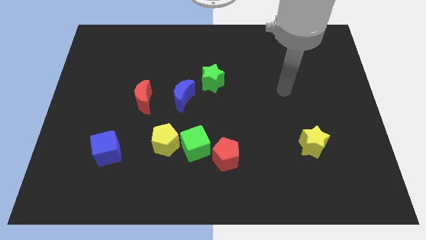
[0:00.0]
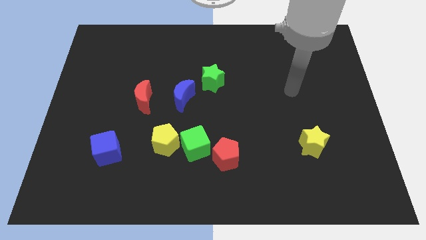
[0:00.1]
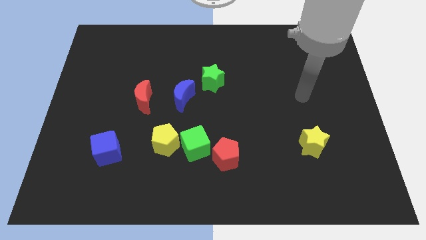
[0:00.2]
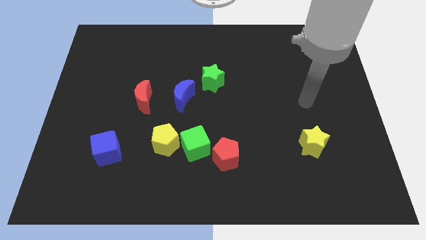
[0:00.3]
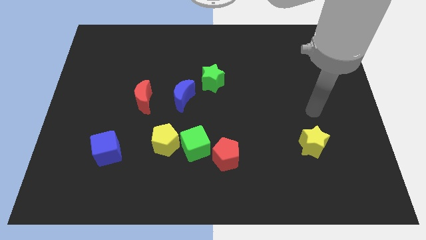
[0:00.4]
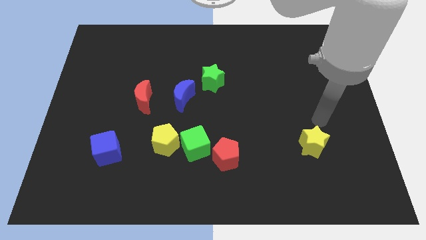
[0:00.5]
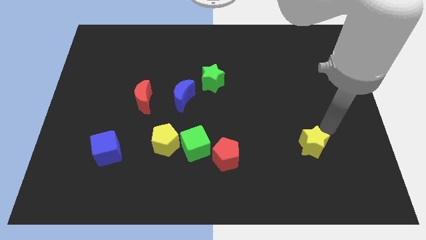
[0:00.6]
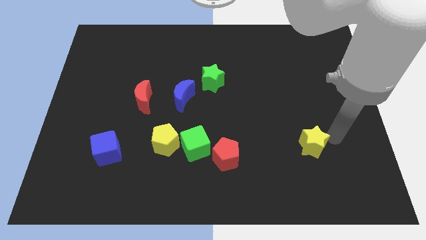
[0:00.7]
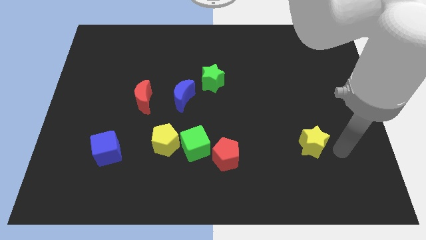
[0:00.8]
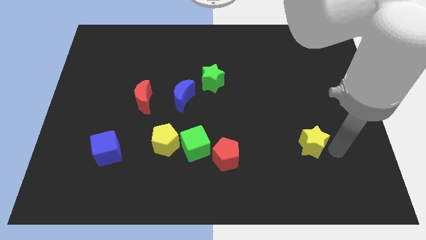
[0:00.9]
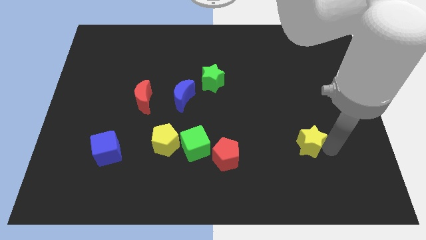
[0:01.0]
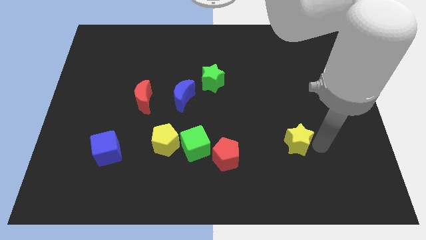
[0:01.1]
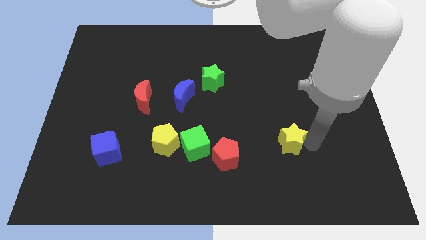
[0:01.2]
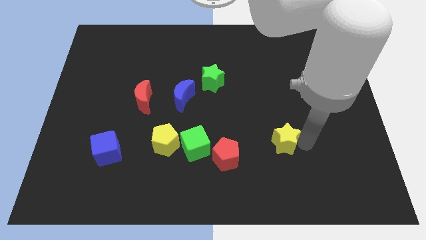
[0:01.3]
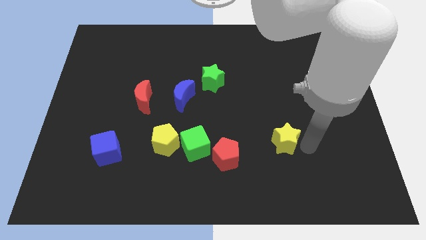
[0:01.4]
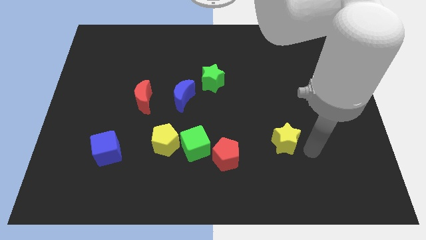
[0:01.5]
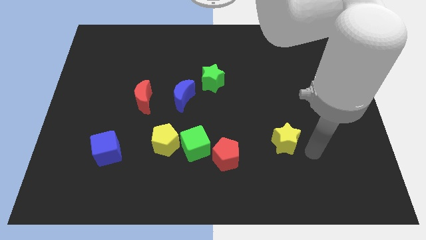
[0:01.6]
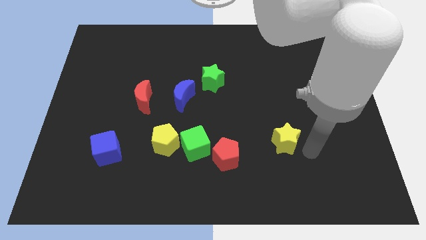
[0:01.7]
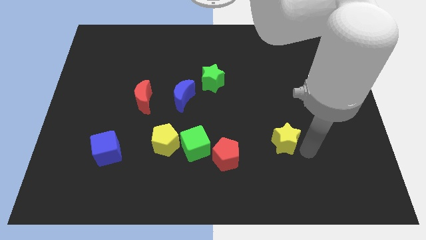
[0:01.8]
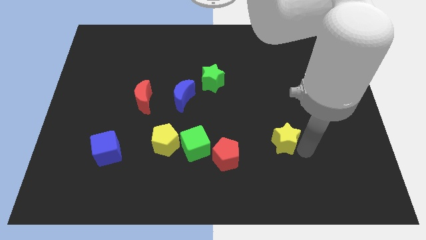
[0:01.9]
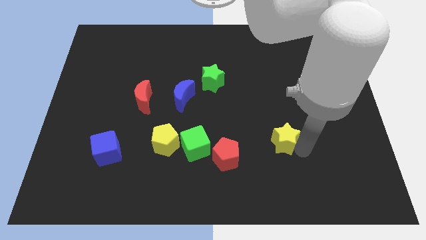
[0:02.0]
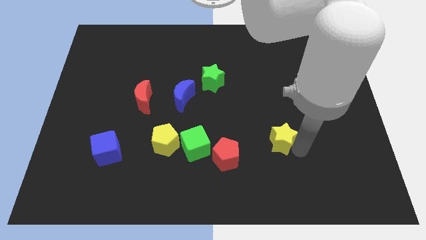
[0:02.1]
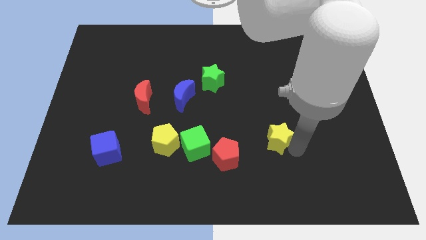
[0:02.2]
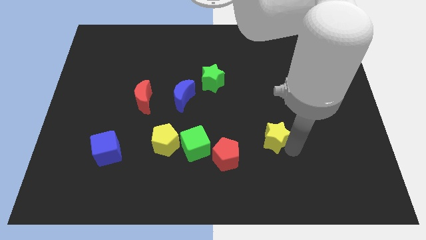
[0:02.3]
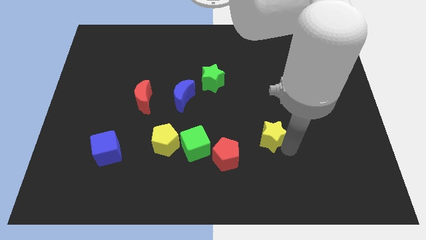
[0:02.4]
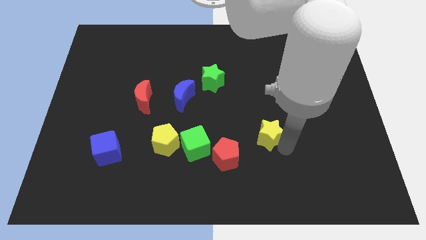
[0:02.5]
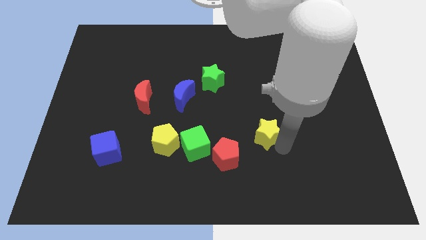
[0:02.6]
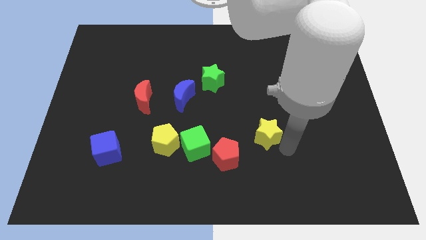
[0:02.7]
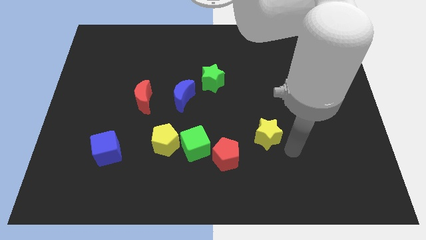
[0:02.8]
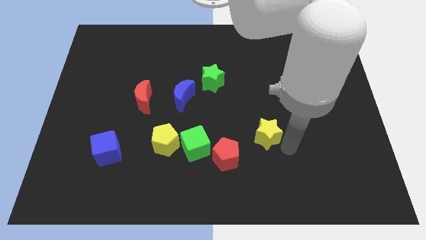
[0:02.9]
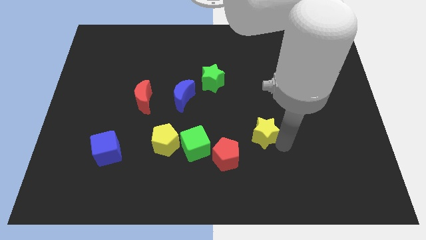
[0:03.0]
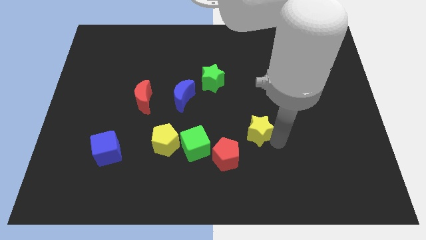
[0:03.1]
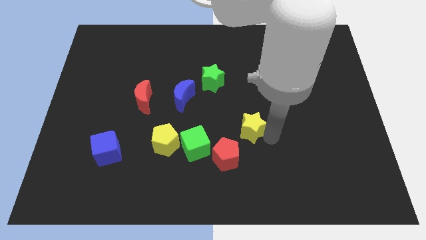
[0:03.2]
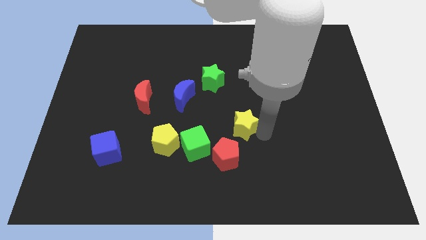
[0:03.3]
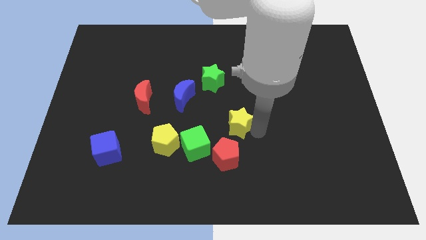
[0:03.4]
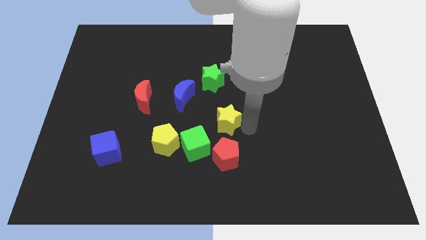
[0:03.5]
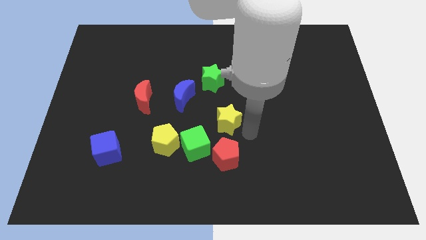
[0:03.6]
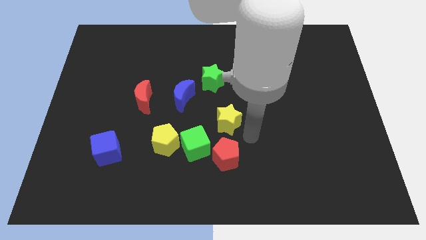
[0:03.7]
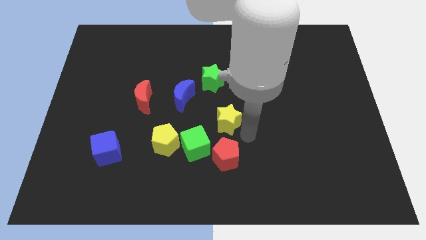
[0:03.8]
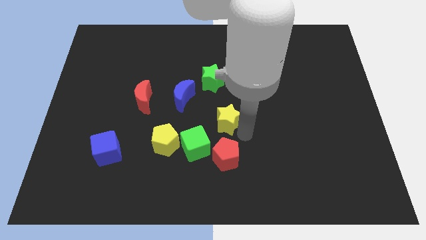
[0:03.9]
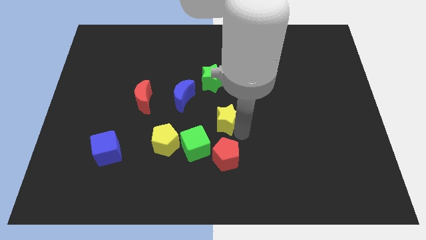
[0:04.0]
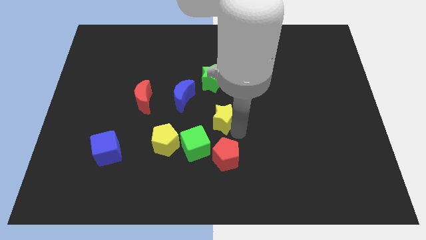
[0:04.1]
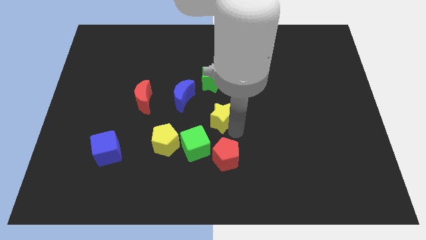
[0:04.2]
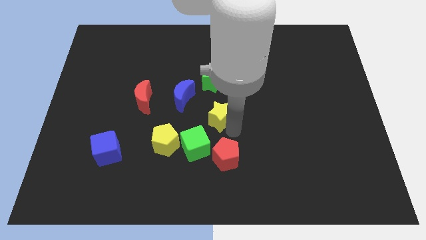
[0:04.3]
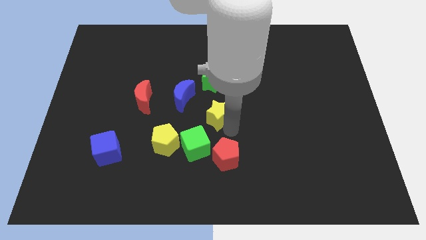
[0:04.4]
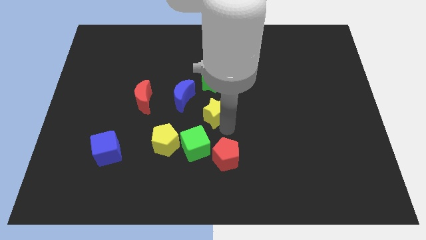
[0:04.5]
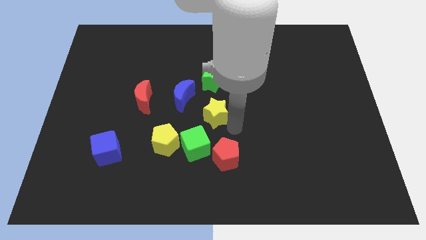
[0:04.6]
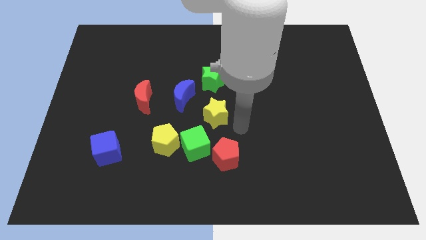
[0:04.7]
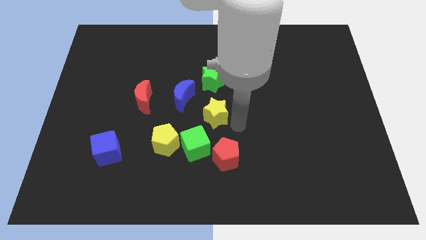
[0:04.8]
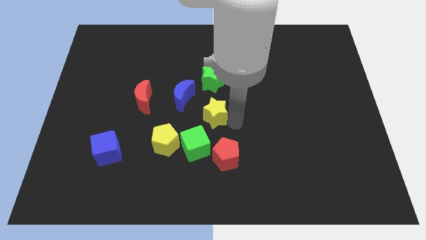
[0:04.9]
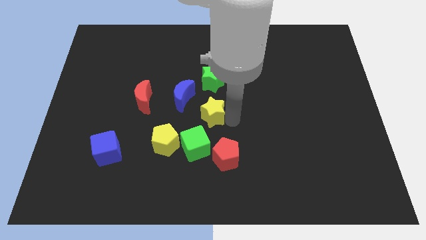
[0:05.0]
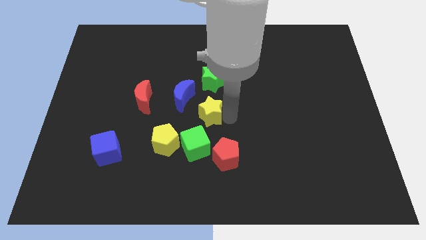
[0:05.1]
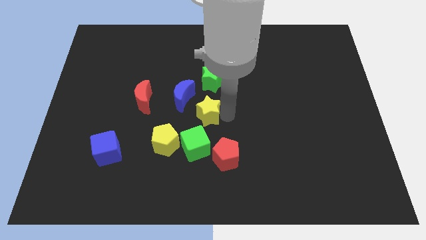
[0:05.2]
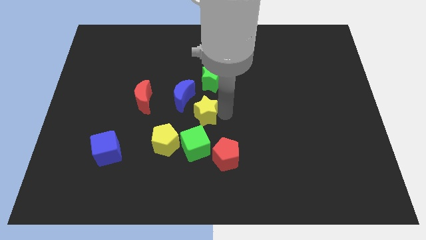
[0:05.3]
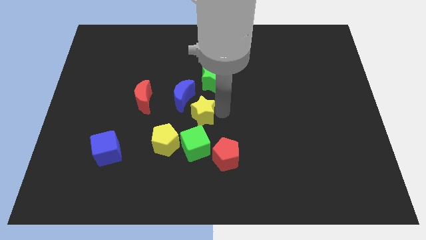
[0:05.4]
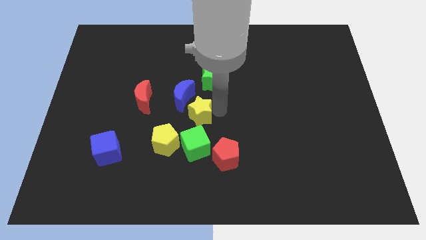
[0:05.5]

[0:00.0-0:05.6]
move the yellow star right of the red moon

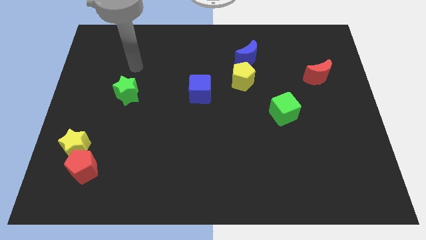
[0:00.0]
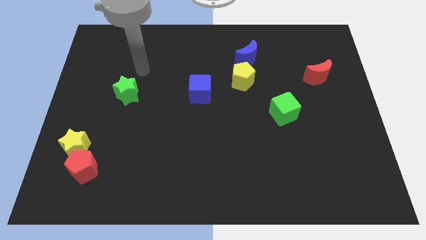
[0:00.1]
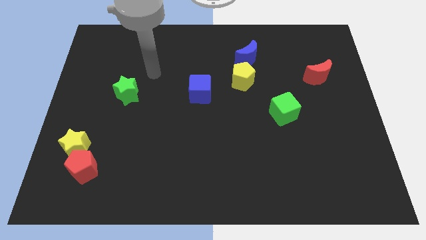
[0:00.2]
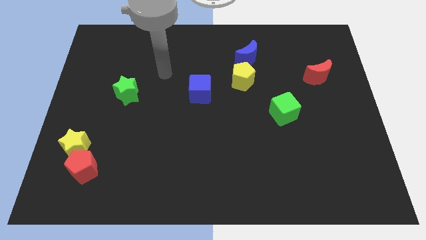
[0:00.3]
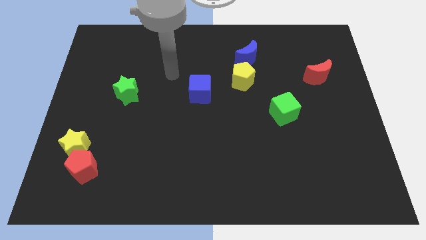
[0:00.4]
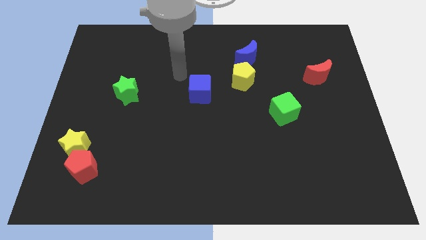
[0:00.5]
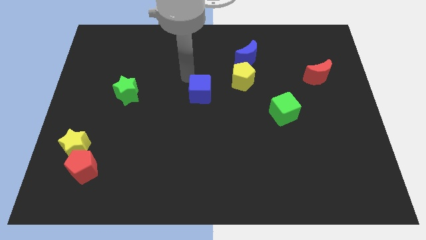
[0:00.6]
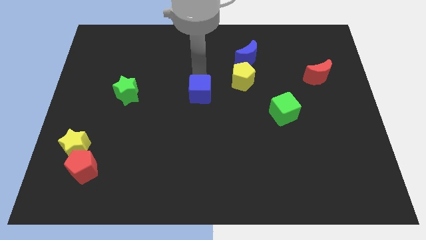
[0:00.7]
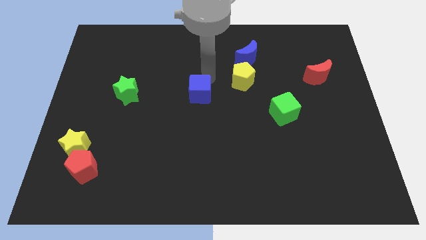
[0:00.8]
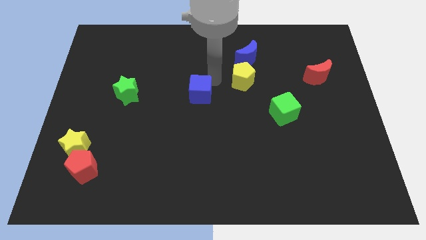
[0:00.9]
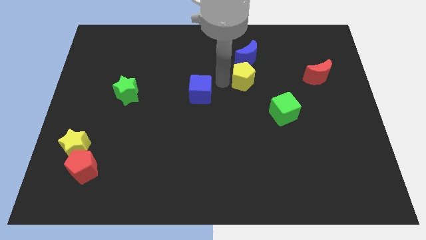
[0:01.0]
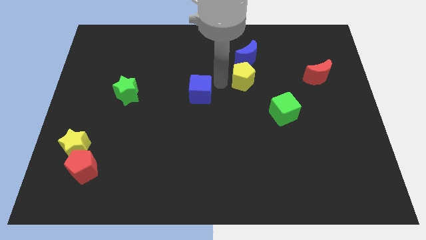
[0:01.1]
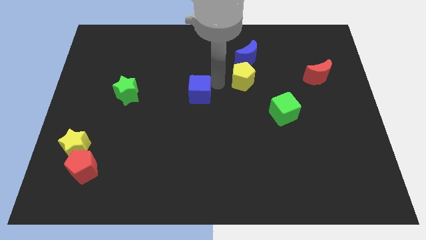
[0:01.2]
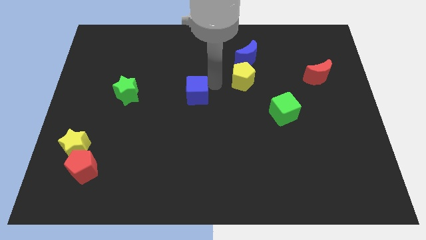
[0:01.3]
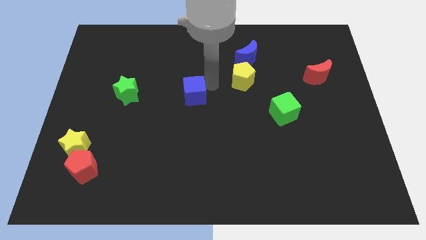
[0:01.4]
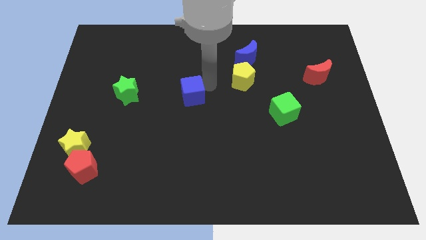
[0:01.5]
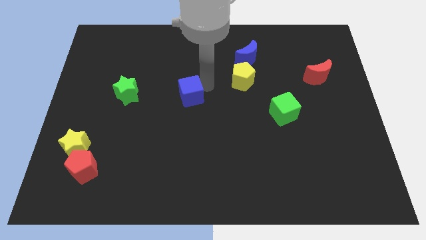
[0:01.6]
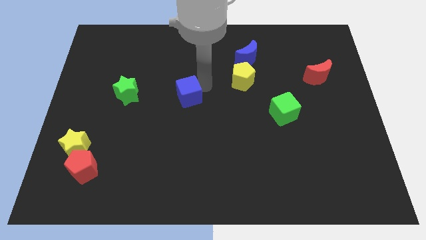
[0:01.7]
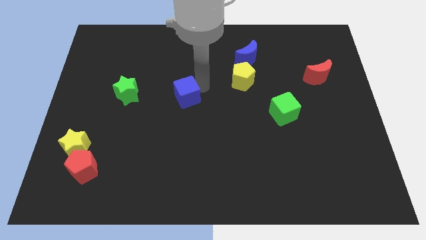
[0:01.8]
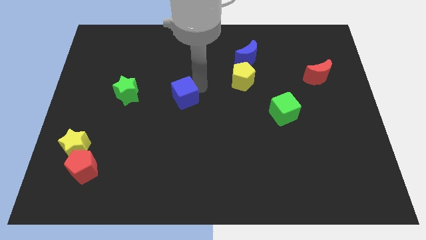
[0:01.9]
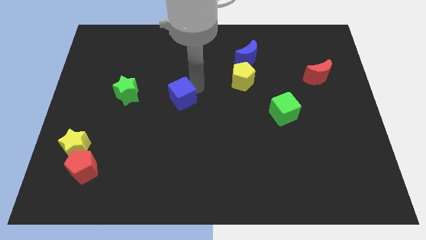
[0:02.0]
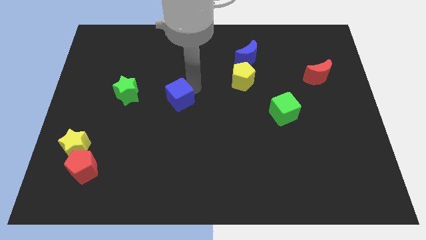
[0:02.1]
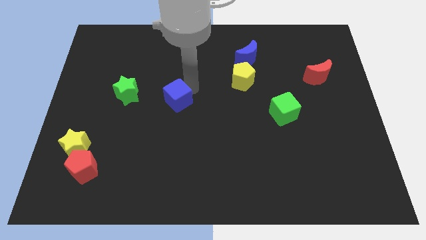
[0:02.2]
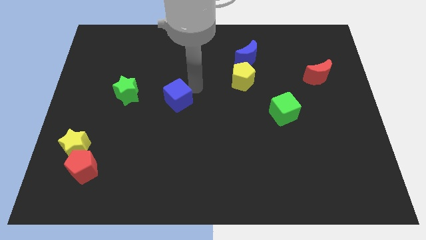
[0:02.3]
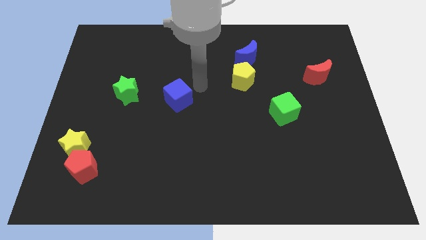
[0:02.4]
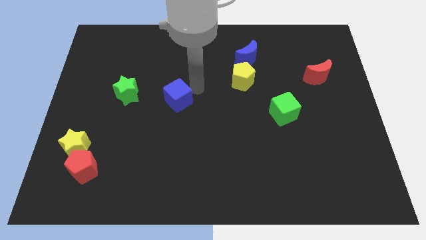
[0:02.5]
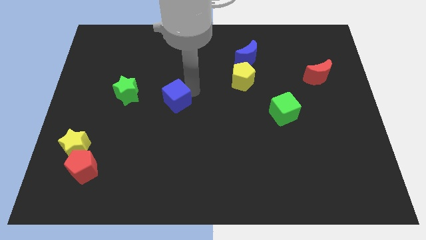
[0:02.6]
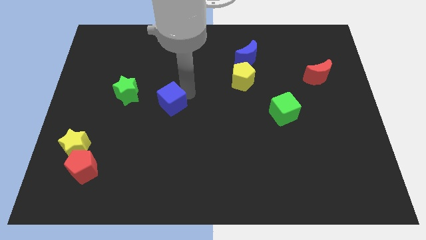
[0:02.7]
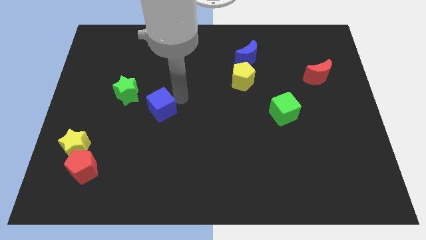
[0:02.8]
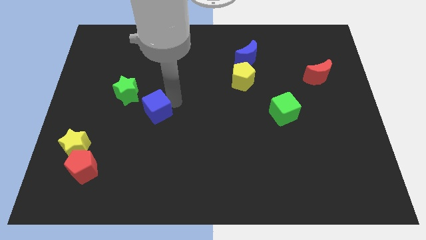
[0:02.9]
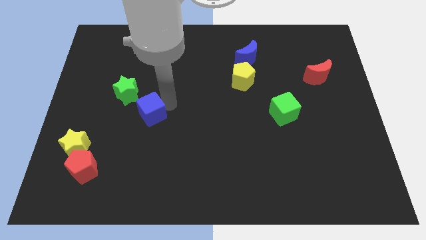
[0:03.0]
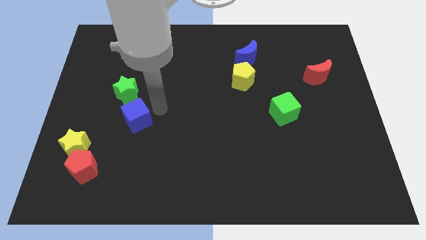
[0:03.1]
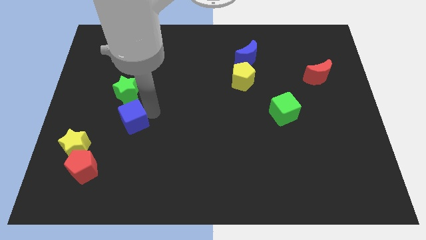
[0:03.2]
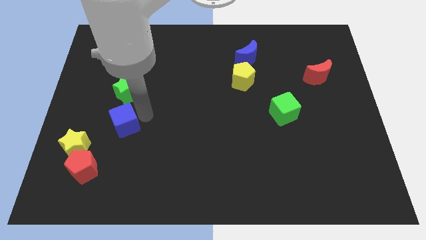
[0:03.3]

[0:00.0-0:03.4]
put the blue cube diagonally up and to the right of the yellow star
